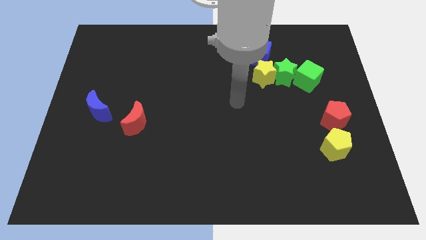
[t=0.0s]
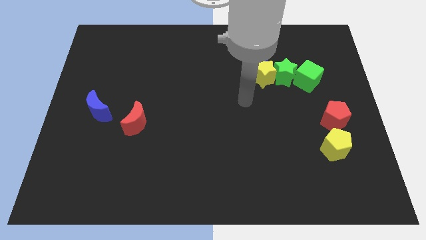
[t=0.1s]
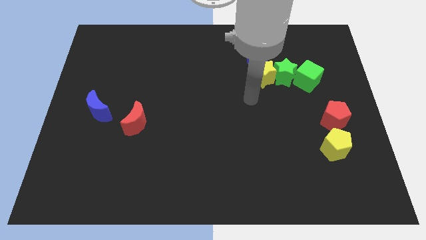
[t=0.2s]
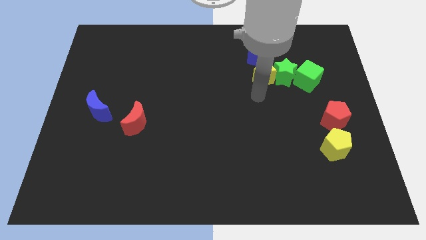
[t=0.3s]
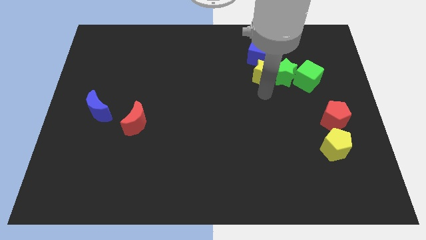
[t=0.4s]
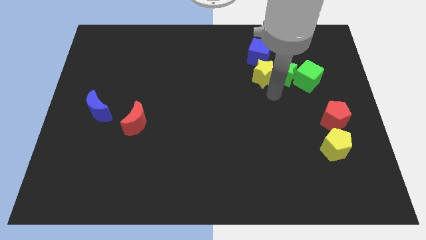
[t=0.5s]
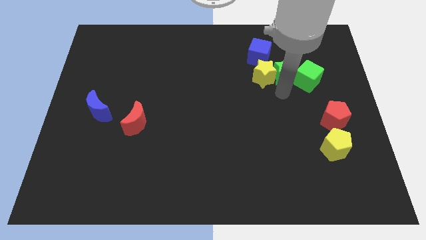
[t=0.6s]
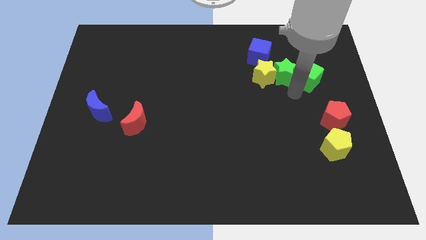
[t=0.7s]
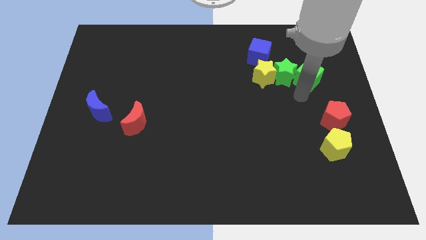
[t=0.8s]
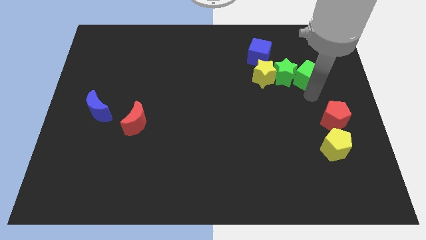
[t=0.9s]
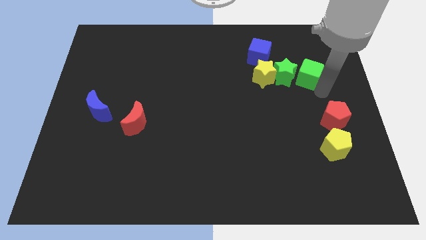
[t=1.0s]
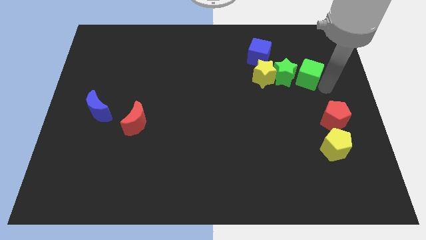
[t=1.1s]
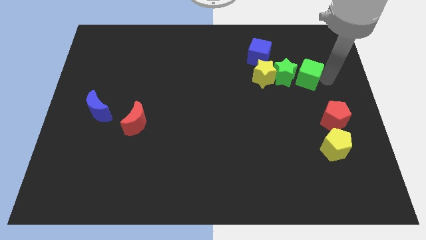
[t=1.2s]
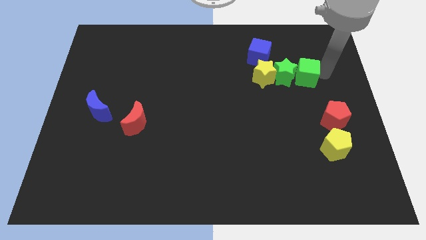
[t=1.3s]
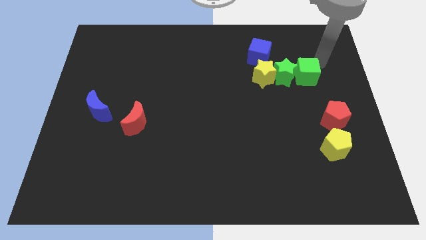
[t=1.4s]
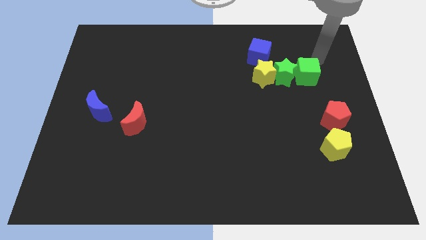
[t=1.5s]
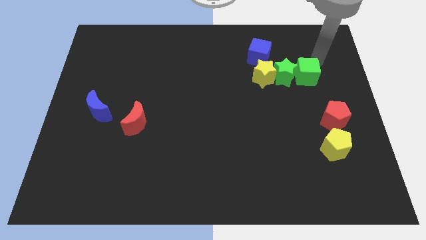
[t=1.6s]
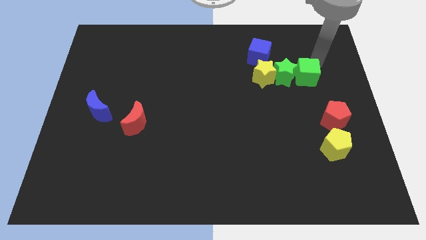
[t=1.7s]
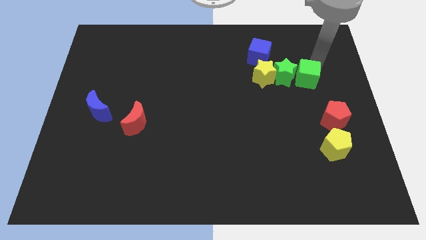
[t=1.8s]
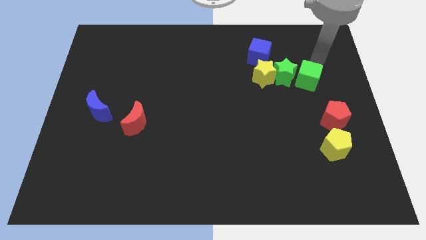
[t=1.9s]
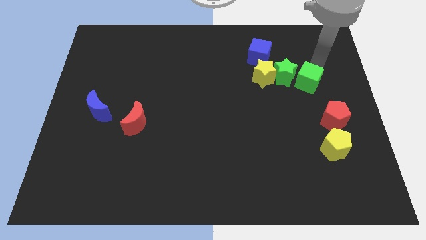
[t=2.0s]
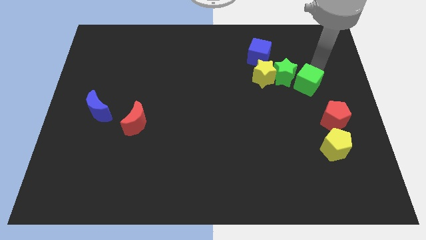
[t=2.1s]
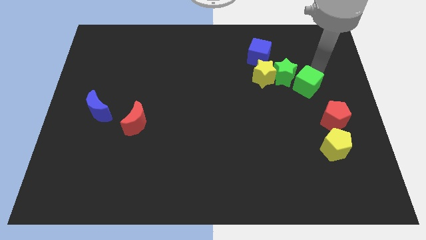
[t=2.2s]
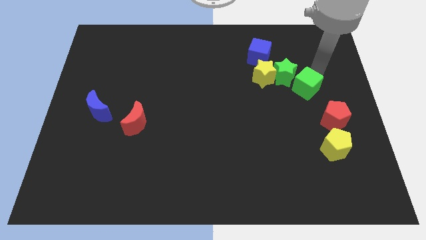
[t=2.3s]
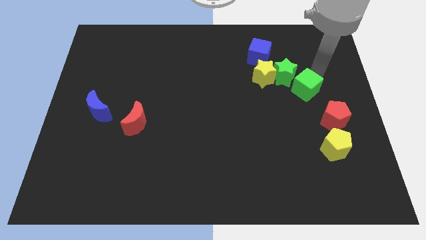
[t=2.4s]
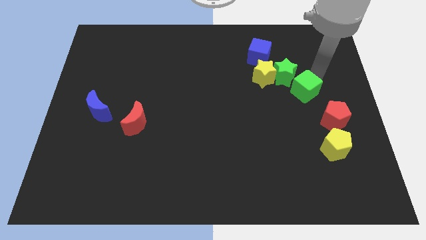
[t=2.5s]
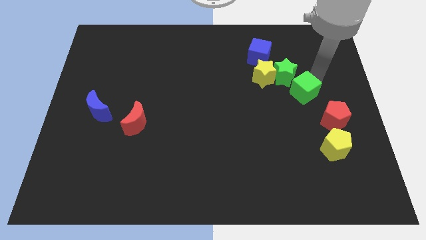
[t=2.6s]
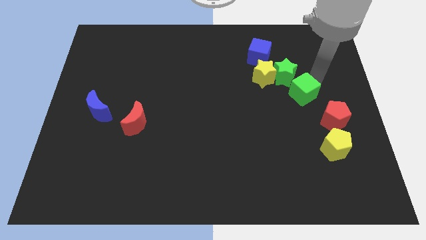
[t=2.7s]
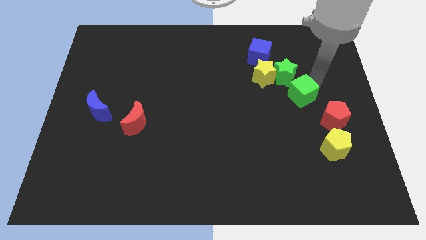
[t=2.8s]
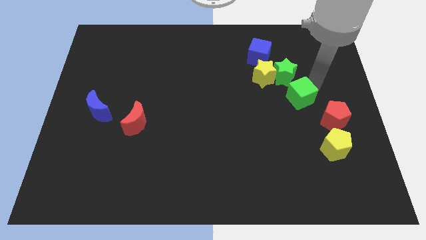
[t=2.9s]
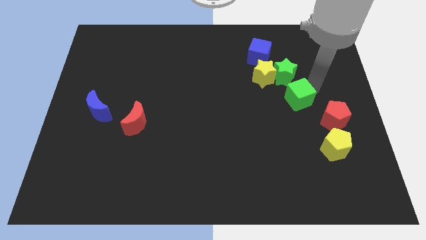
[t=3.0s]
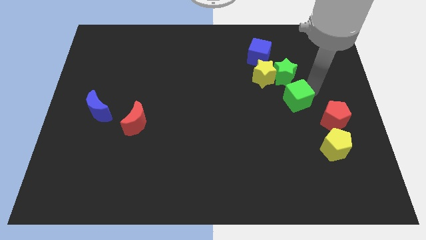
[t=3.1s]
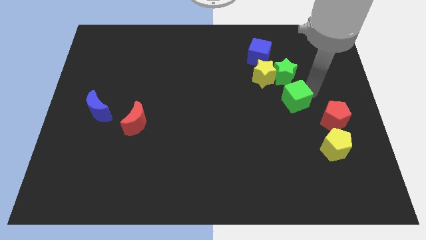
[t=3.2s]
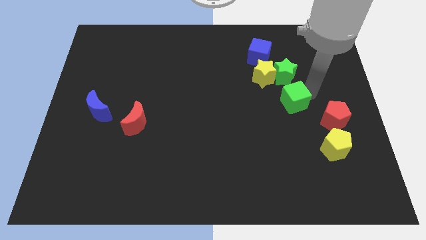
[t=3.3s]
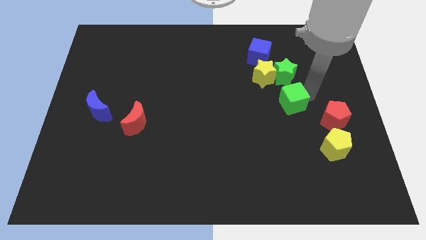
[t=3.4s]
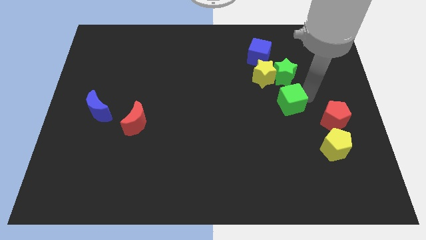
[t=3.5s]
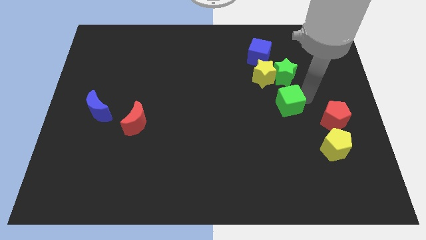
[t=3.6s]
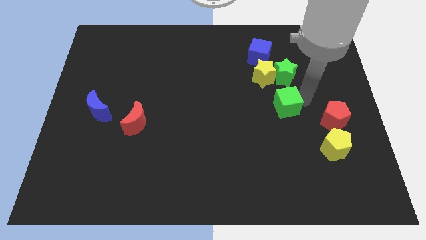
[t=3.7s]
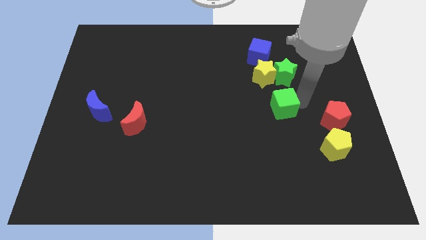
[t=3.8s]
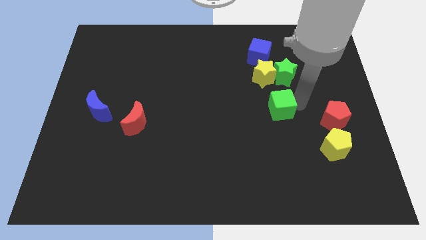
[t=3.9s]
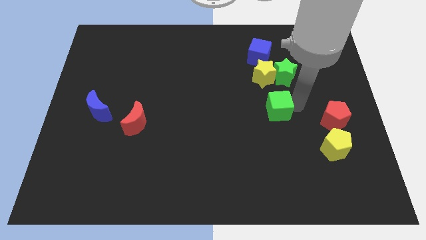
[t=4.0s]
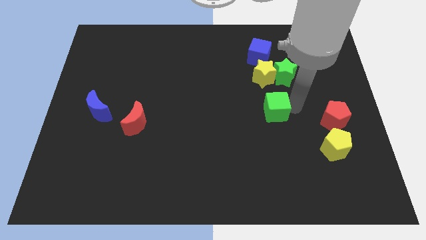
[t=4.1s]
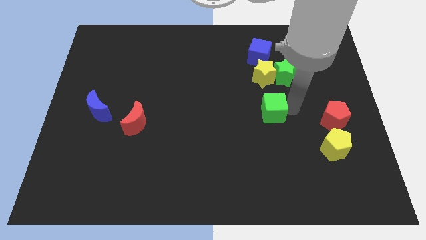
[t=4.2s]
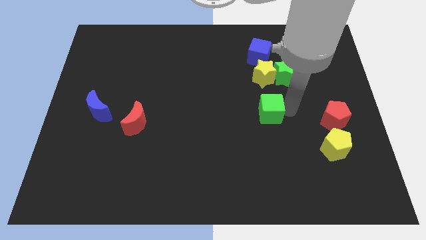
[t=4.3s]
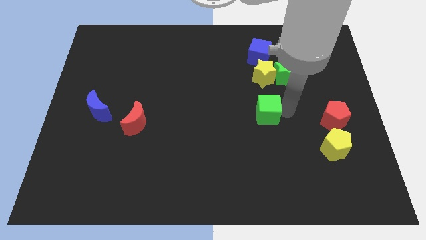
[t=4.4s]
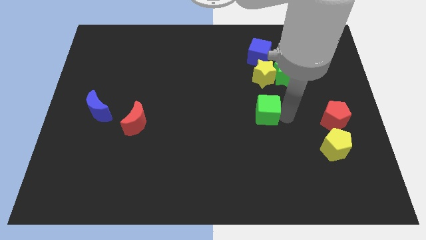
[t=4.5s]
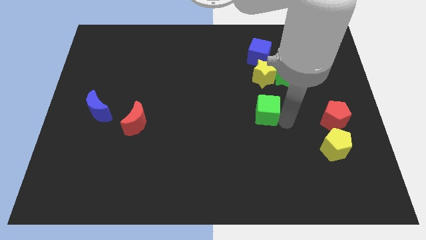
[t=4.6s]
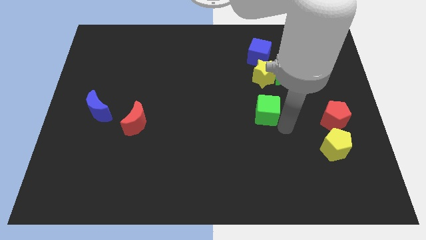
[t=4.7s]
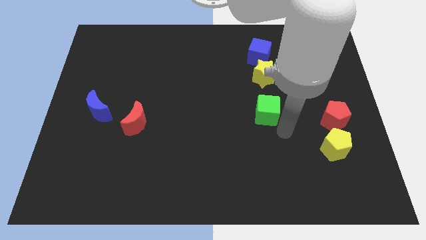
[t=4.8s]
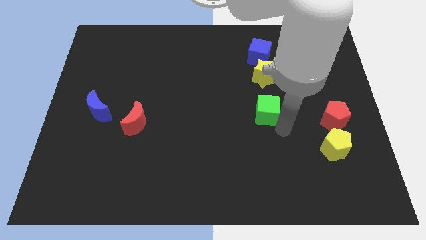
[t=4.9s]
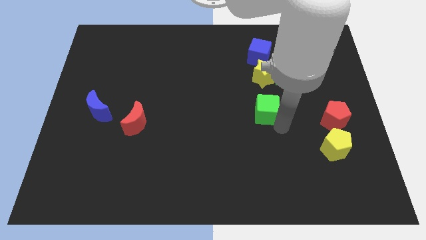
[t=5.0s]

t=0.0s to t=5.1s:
push the green cube to the center
